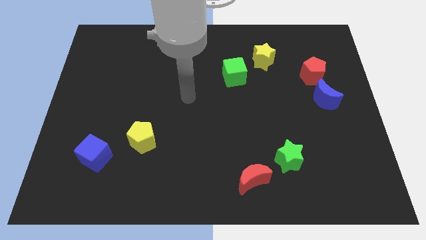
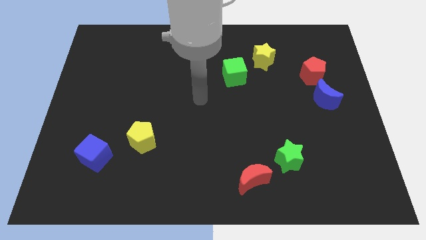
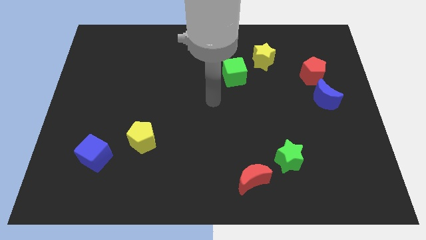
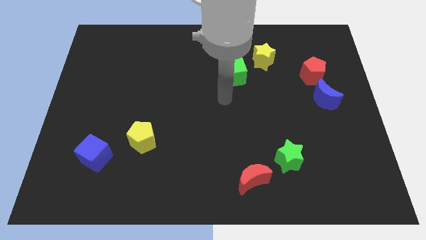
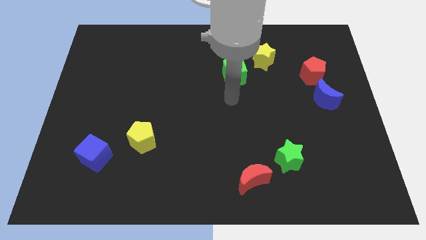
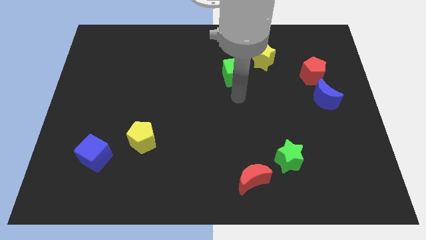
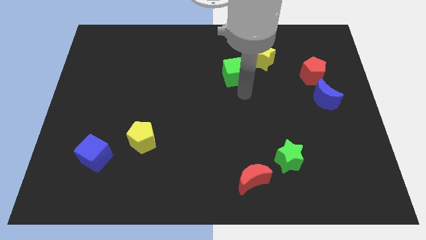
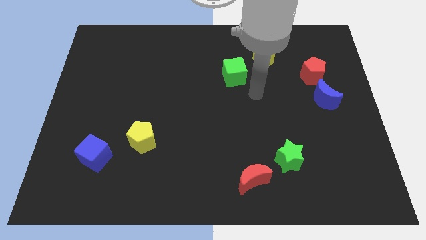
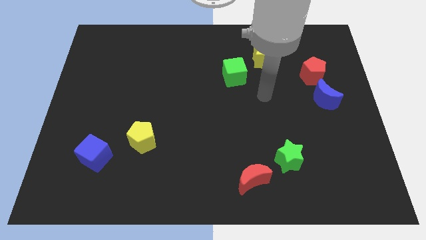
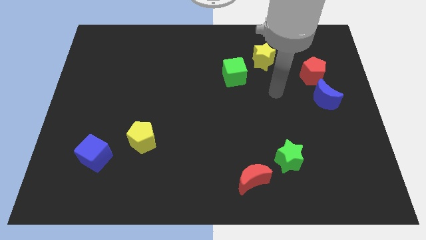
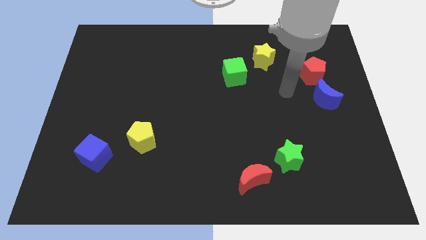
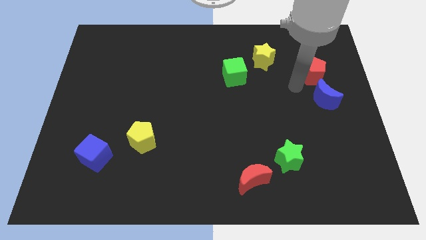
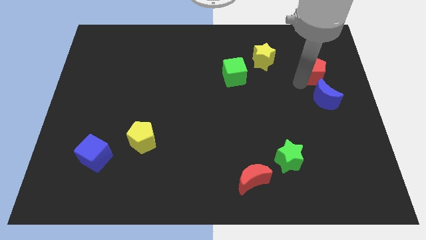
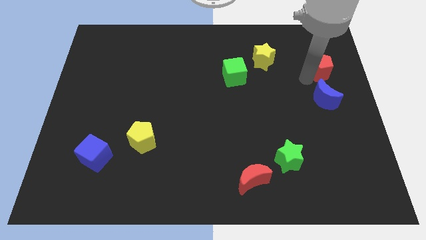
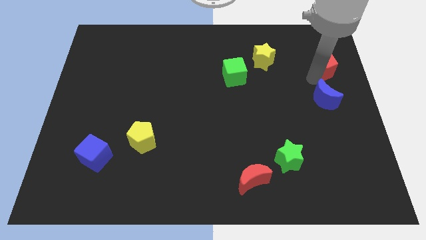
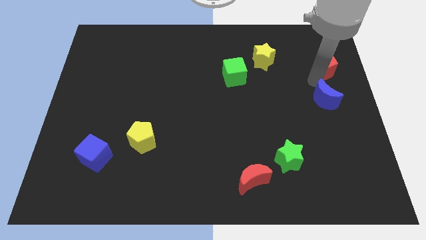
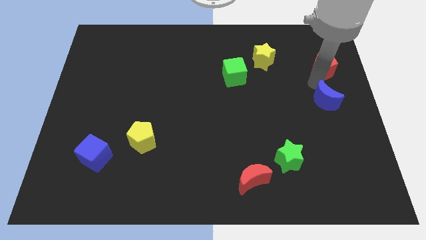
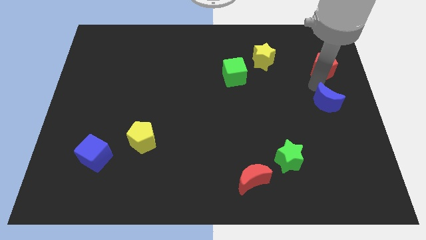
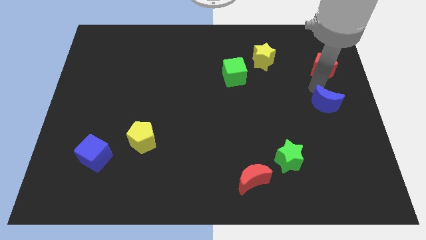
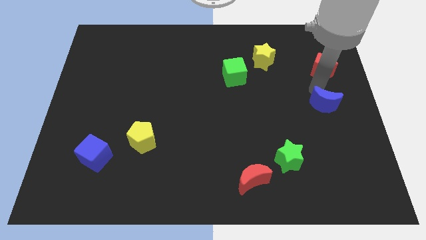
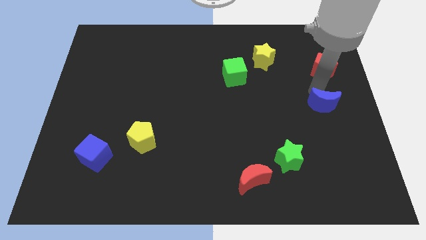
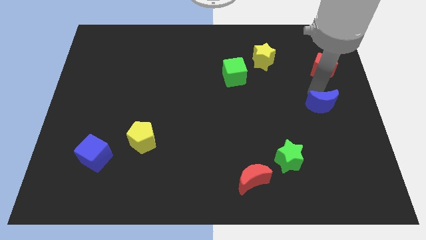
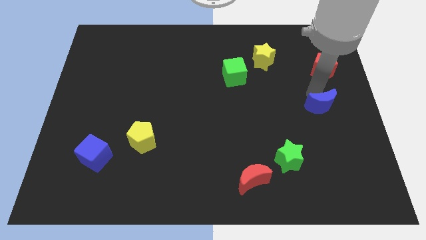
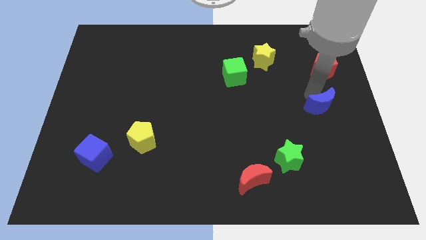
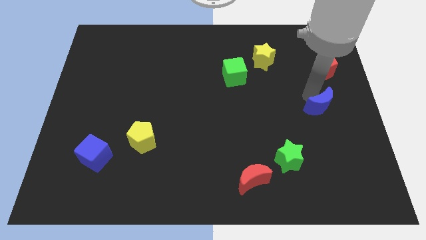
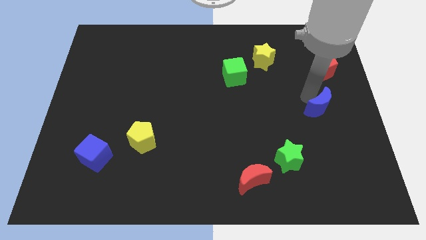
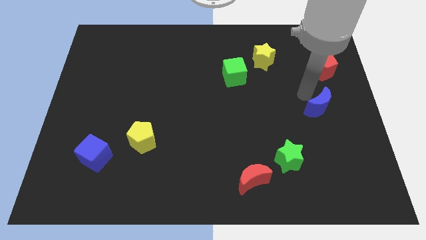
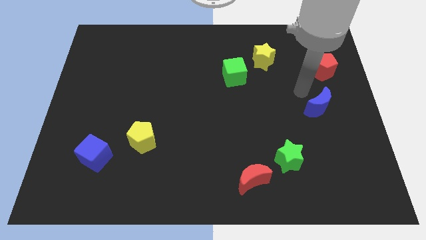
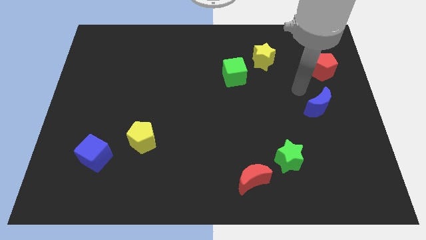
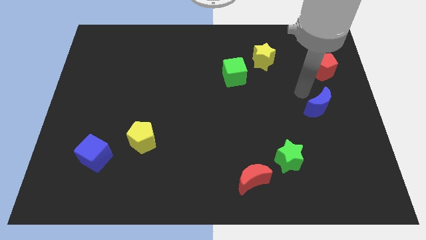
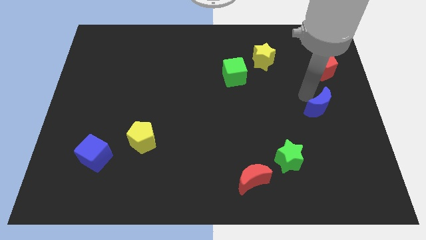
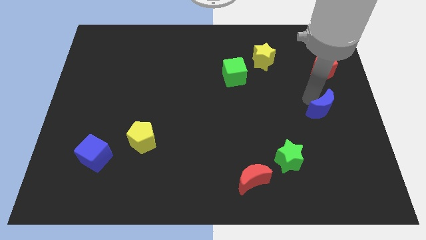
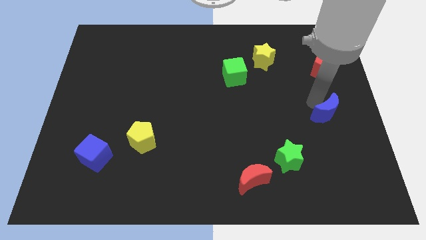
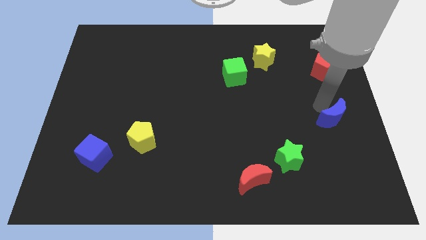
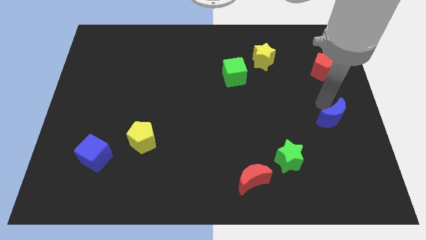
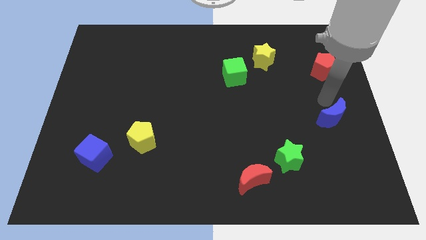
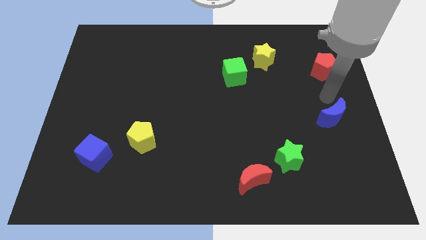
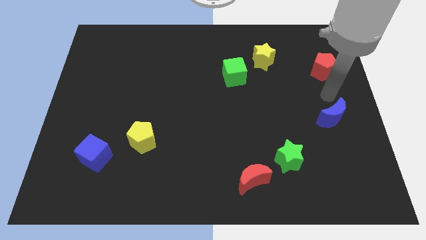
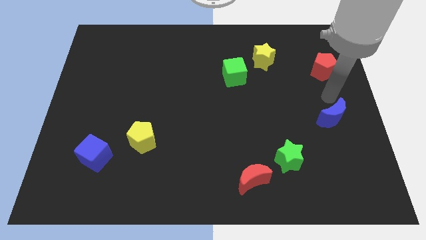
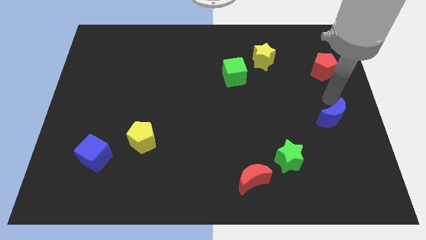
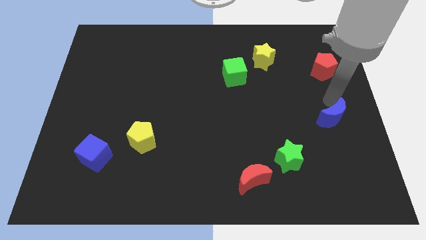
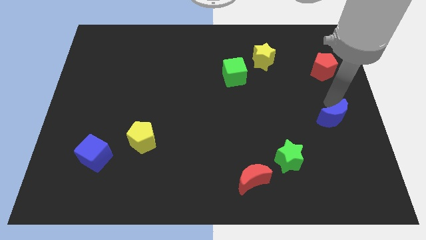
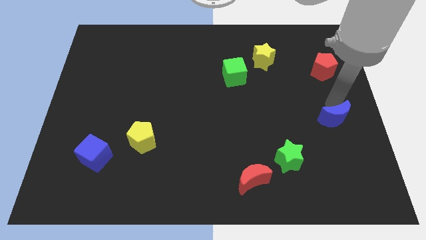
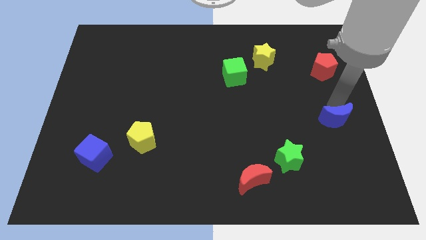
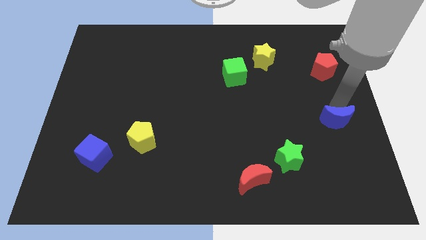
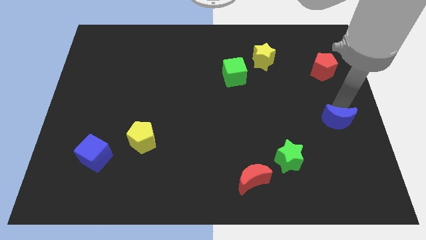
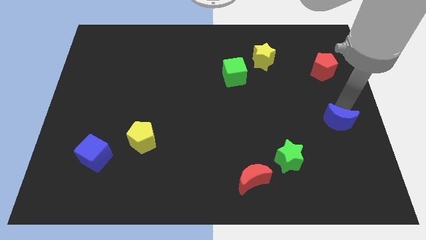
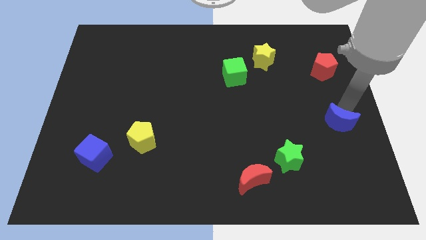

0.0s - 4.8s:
slightly move the blue moon downwards

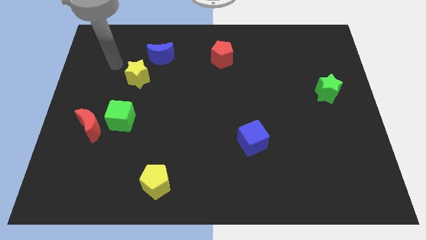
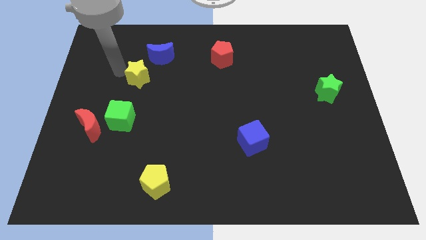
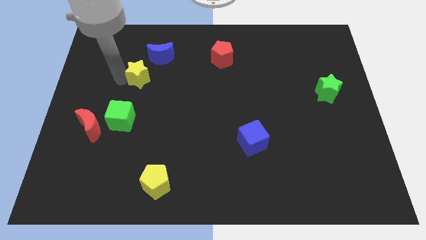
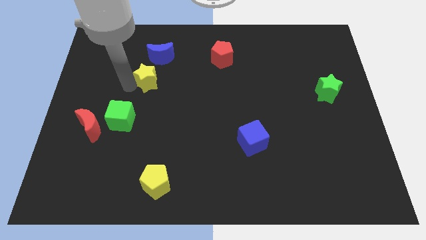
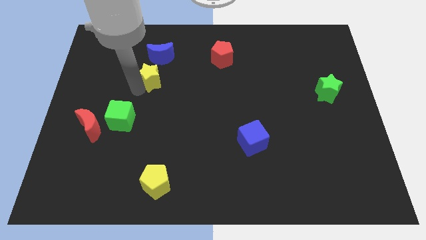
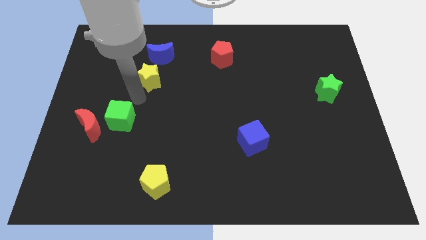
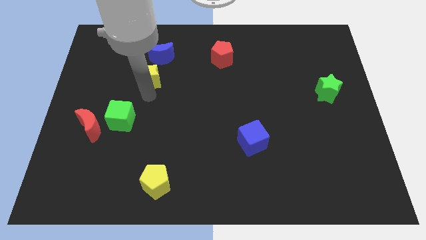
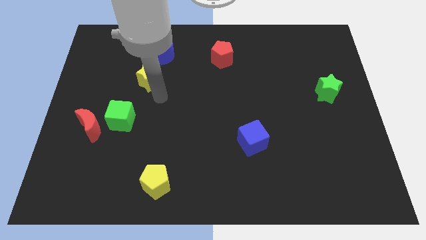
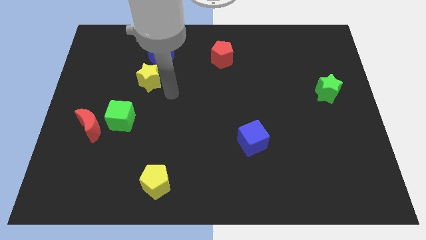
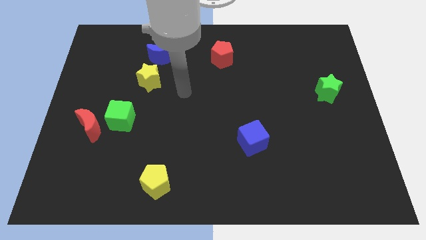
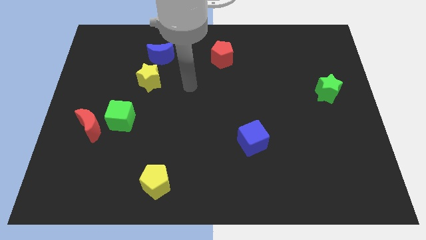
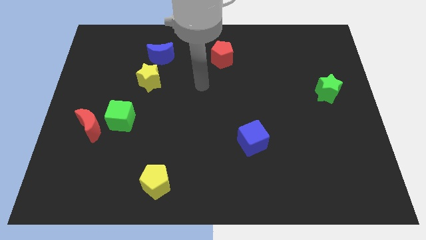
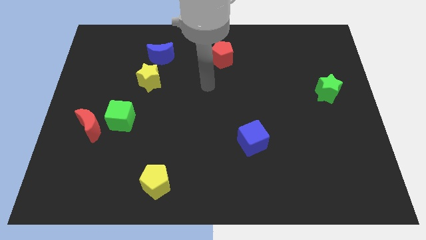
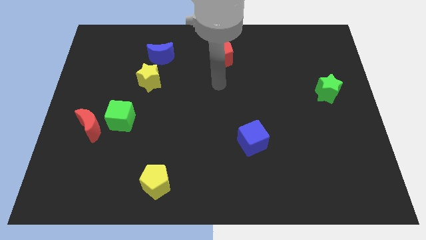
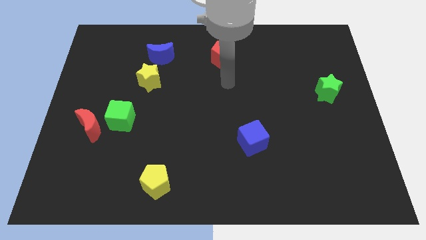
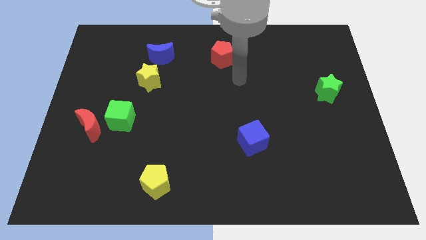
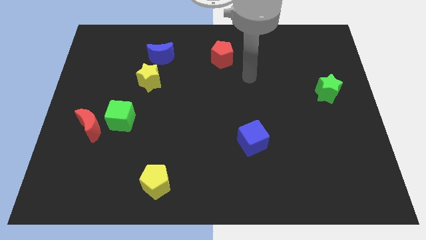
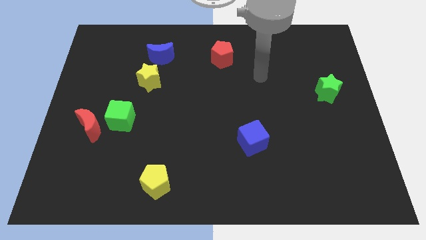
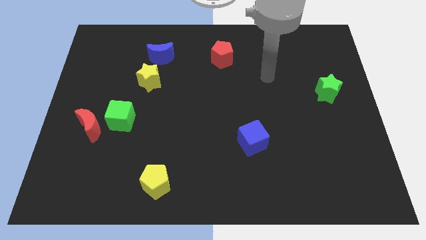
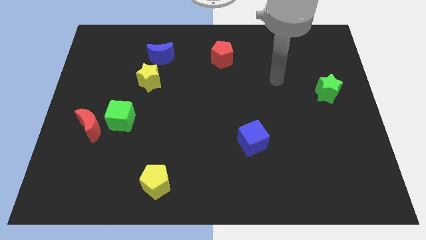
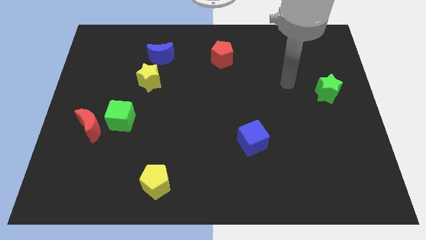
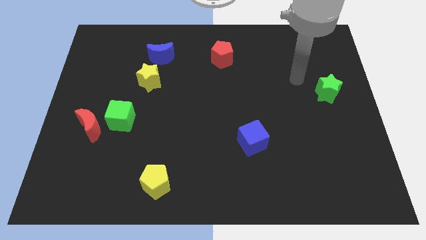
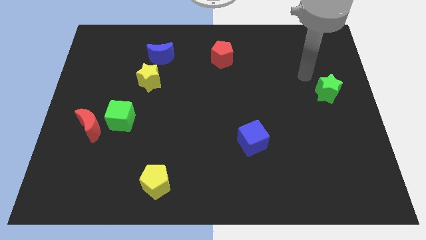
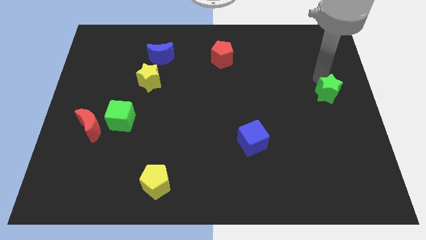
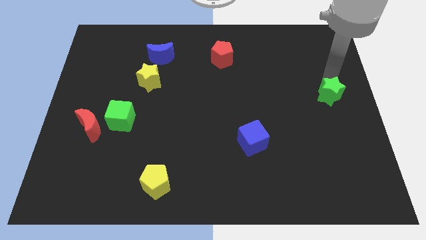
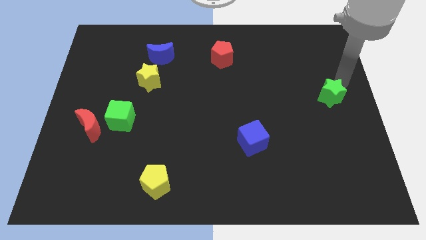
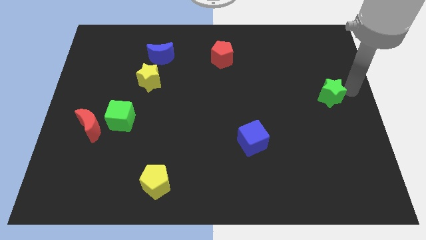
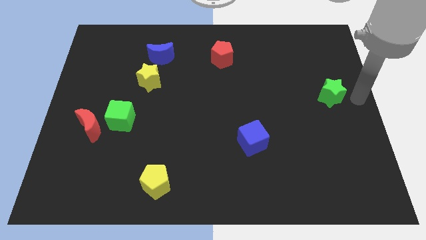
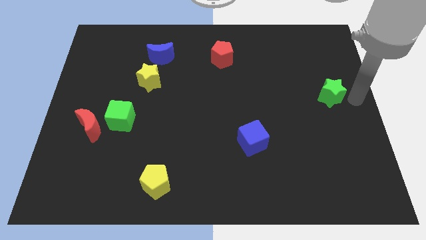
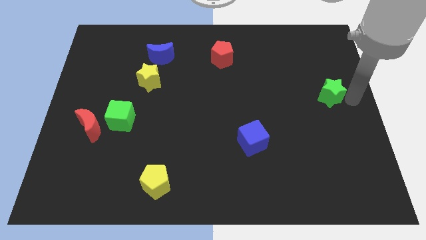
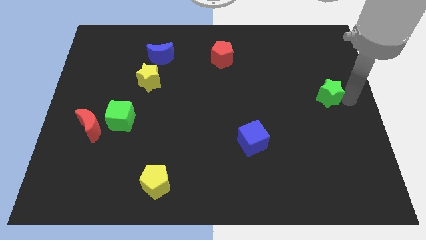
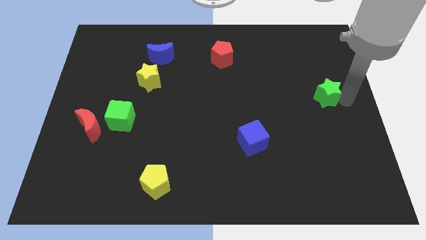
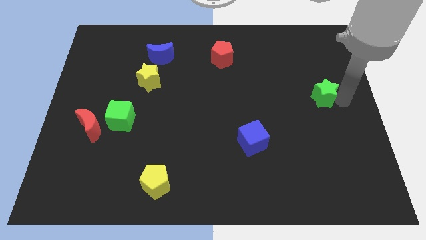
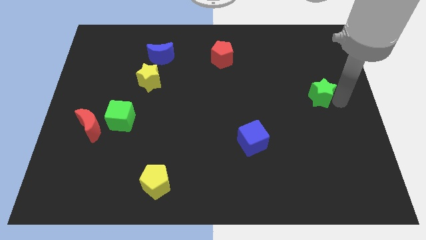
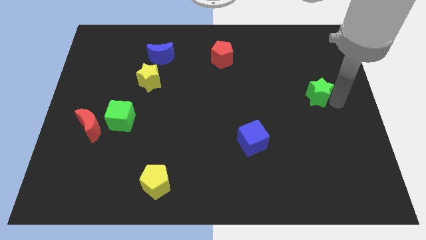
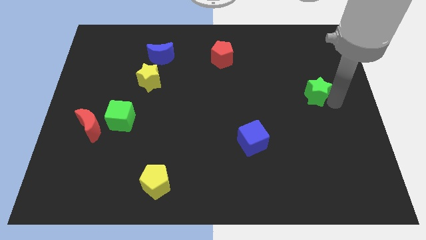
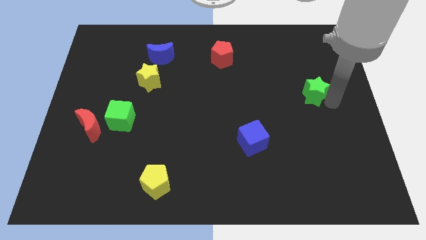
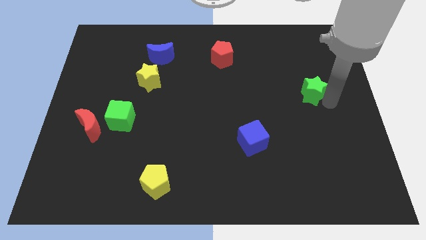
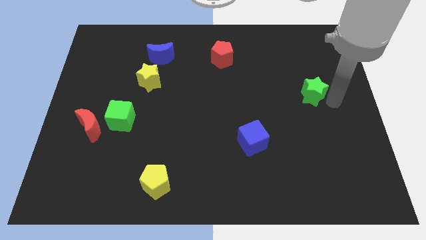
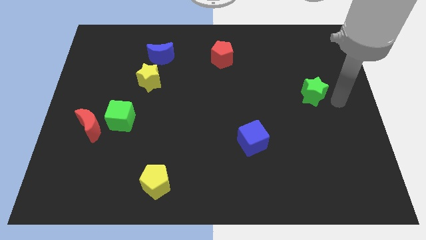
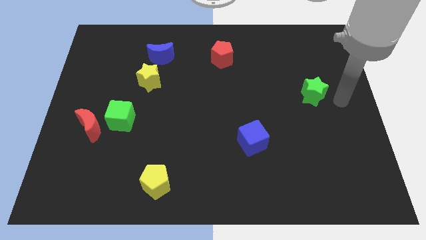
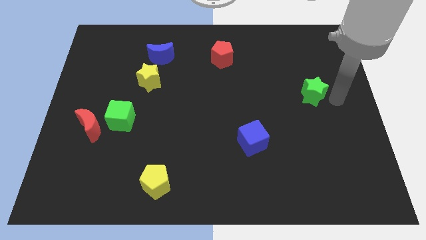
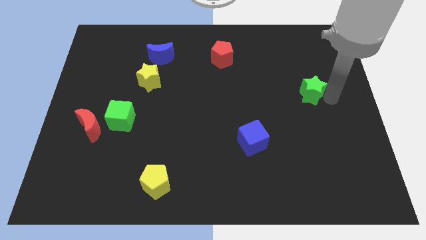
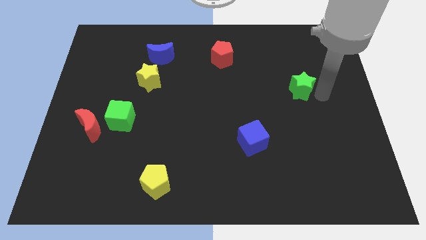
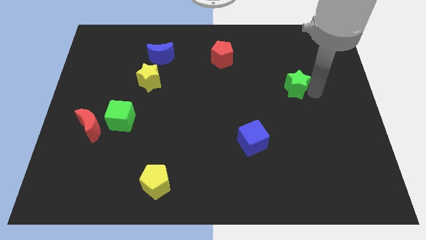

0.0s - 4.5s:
slightly move the green star to the left
